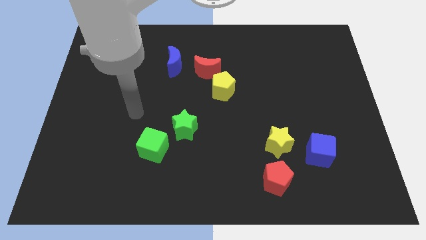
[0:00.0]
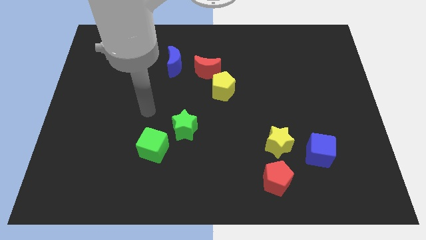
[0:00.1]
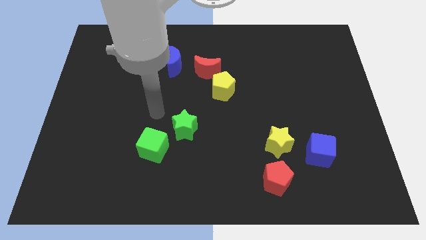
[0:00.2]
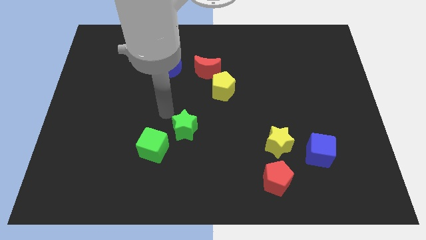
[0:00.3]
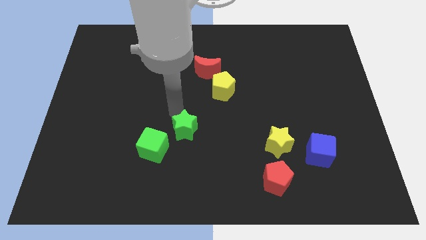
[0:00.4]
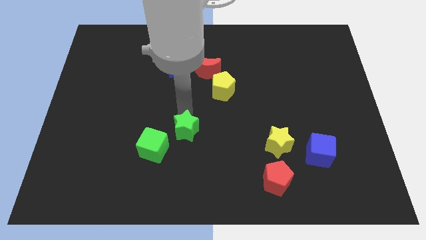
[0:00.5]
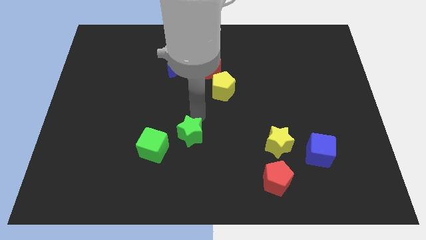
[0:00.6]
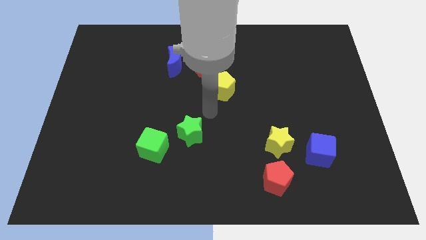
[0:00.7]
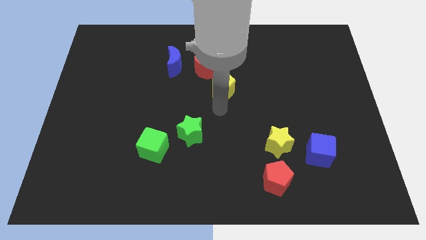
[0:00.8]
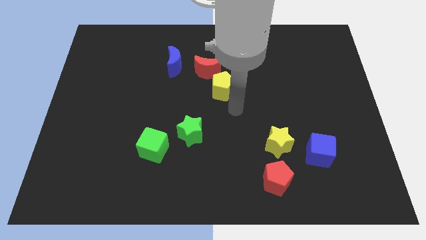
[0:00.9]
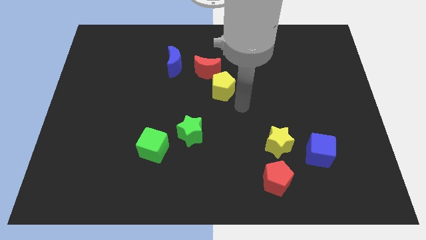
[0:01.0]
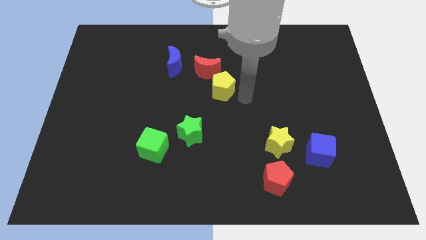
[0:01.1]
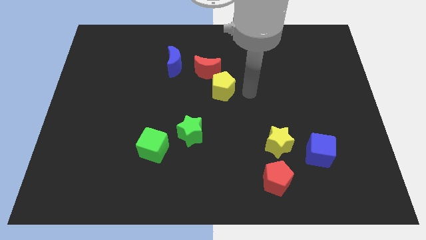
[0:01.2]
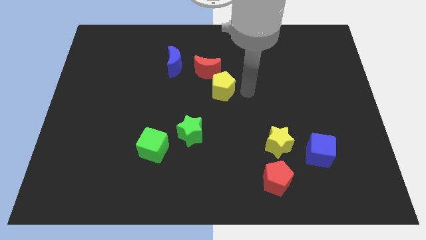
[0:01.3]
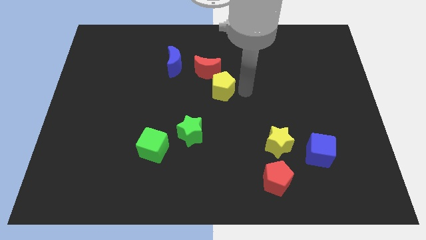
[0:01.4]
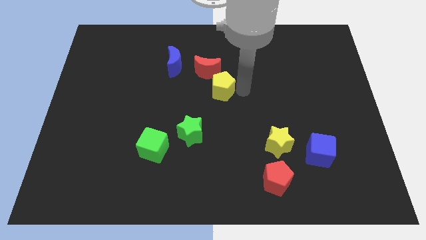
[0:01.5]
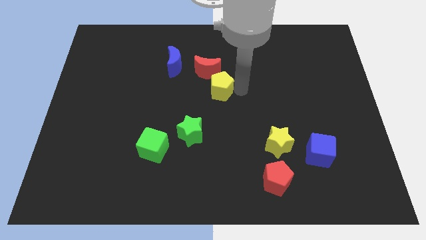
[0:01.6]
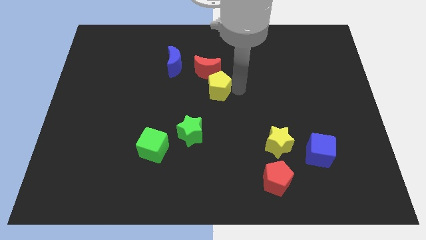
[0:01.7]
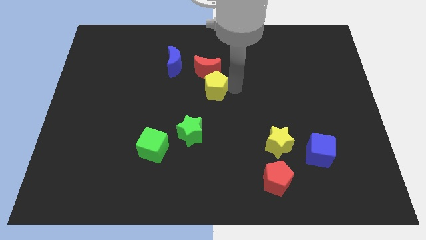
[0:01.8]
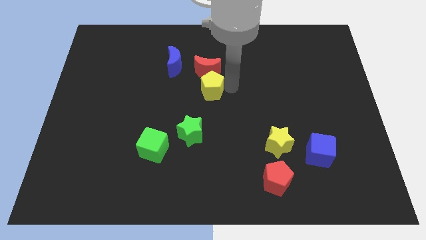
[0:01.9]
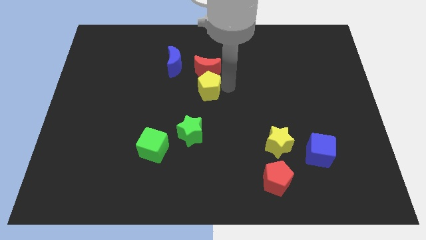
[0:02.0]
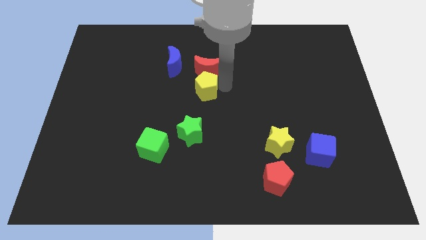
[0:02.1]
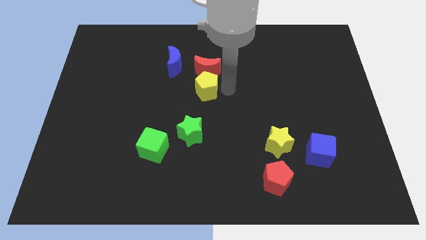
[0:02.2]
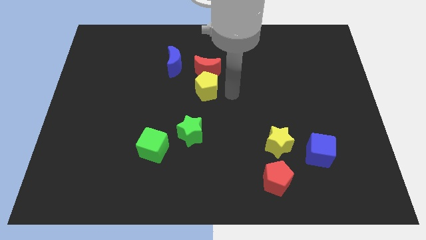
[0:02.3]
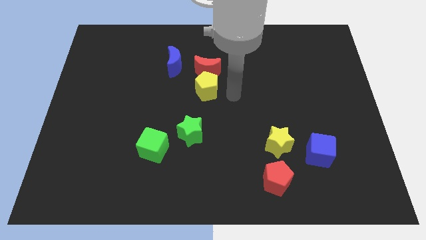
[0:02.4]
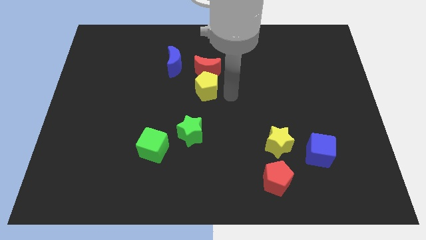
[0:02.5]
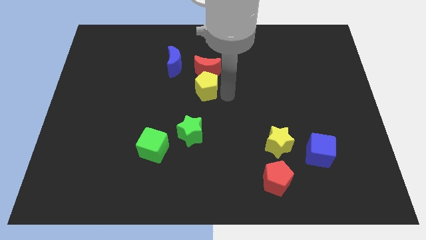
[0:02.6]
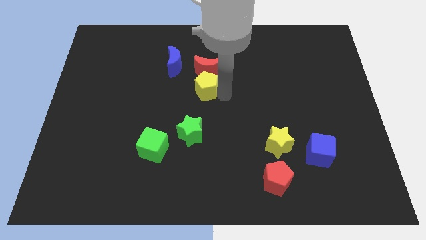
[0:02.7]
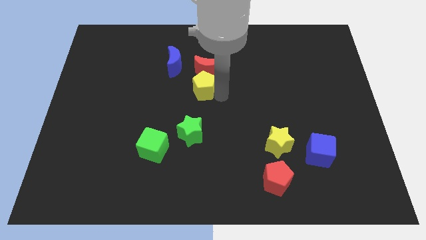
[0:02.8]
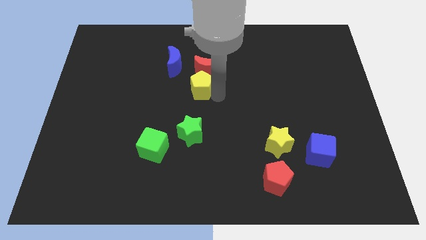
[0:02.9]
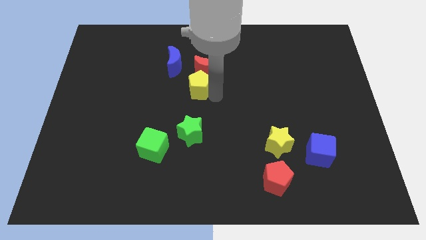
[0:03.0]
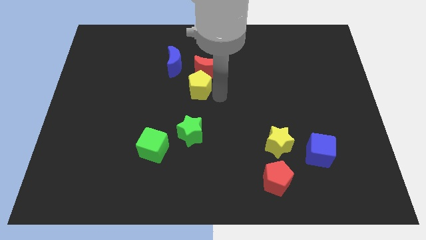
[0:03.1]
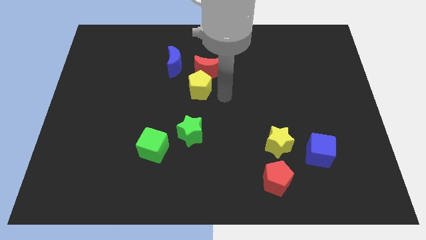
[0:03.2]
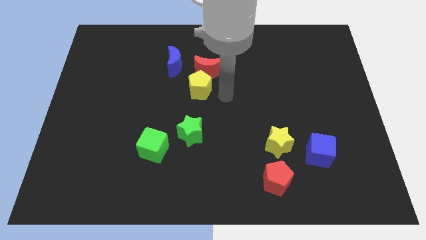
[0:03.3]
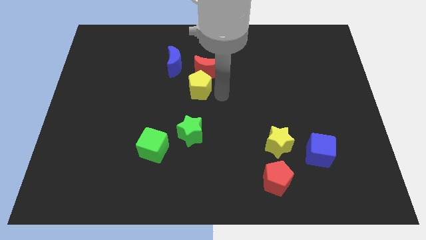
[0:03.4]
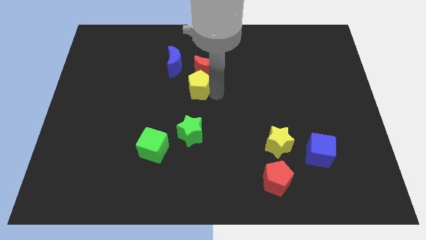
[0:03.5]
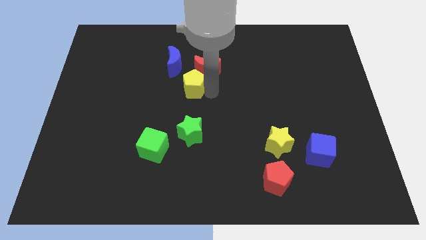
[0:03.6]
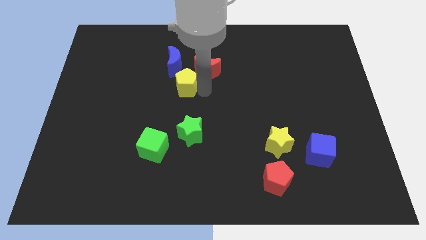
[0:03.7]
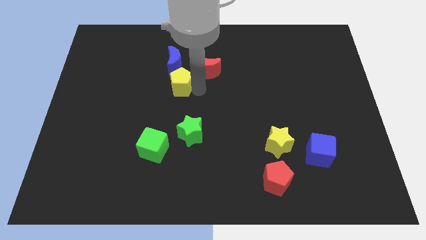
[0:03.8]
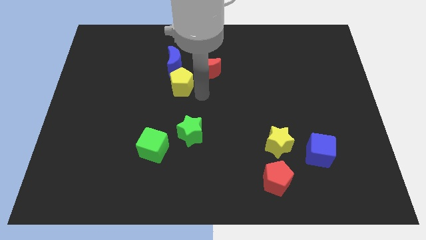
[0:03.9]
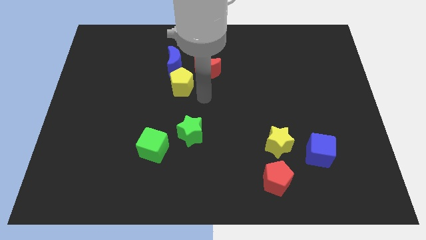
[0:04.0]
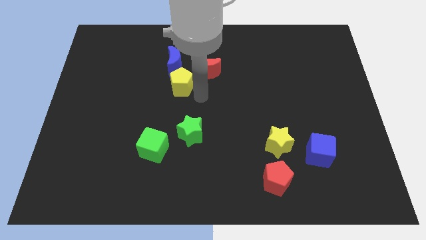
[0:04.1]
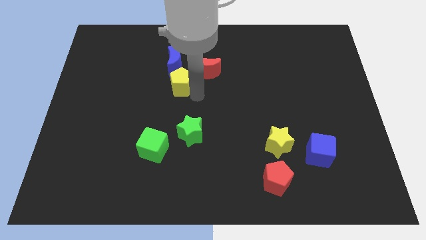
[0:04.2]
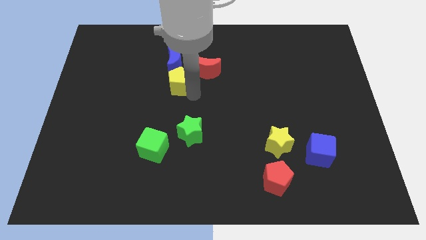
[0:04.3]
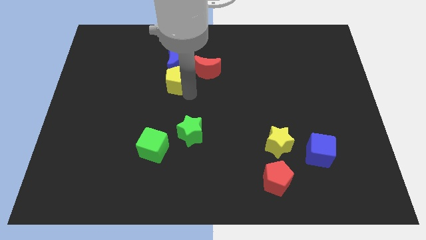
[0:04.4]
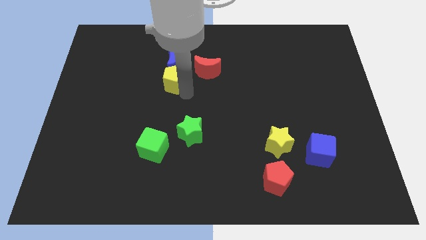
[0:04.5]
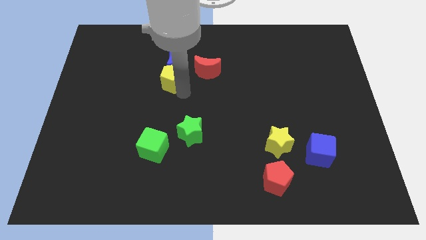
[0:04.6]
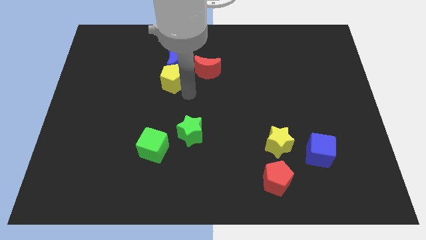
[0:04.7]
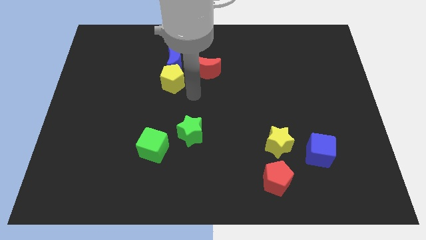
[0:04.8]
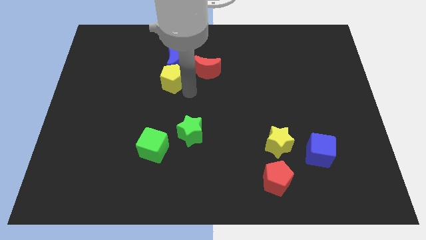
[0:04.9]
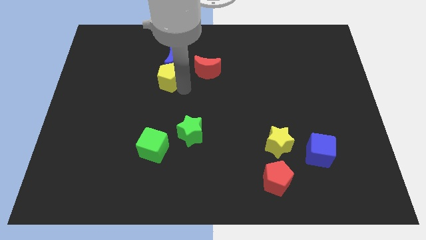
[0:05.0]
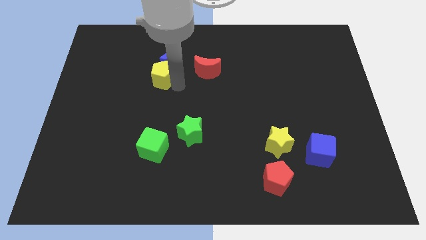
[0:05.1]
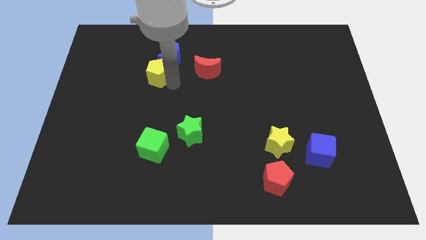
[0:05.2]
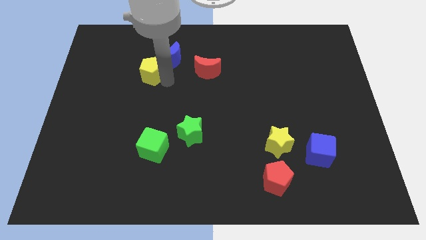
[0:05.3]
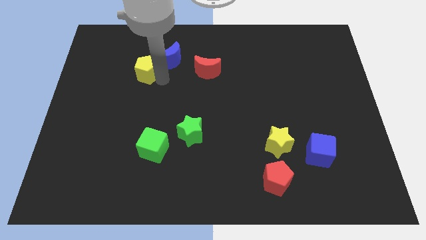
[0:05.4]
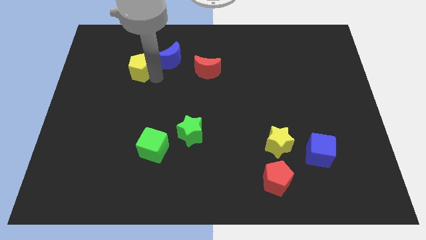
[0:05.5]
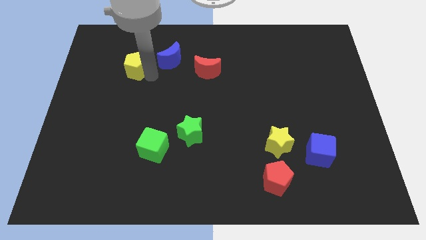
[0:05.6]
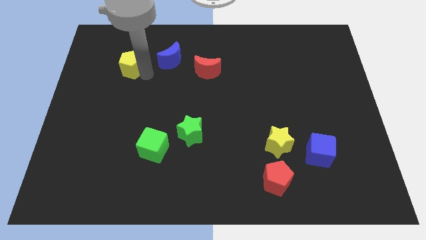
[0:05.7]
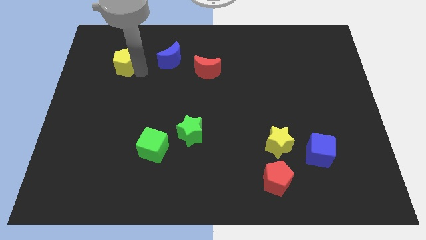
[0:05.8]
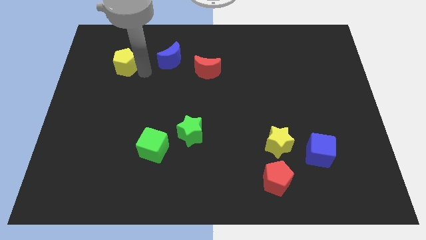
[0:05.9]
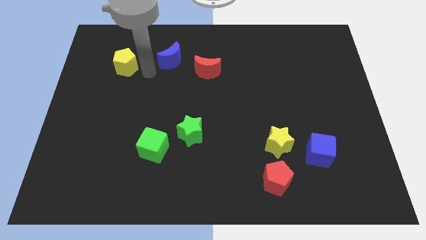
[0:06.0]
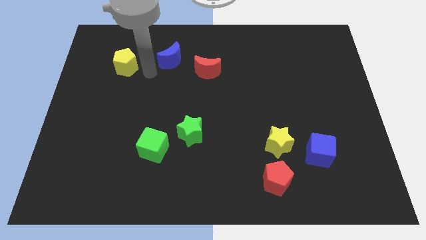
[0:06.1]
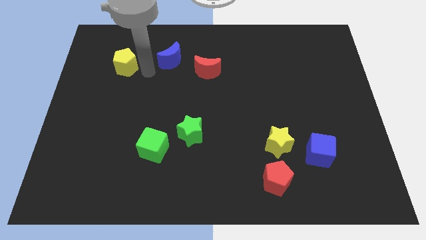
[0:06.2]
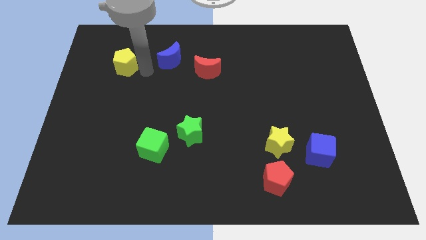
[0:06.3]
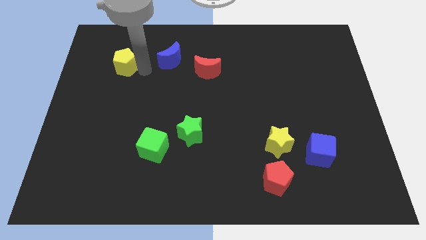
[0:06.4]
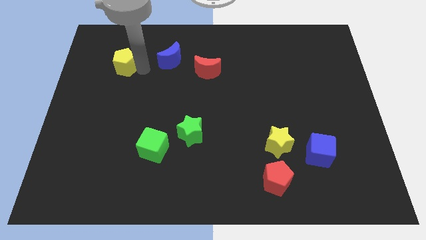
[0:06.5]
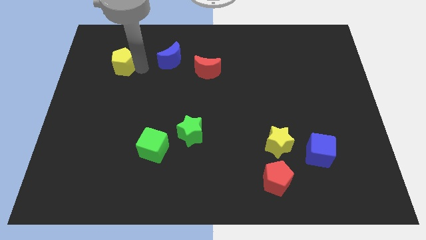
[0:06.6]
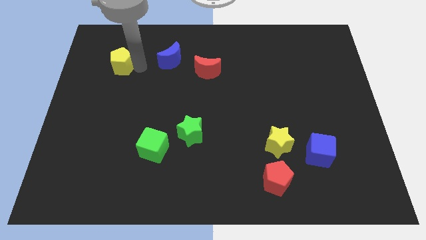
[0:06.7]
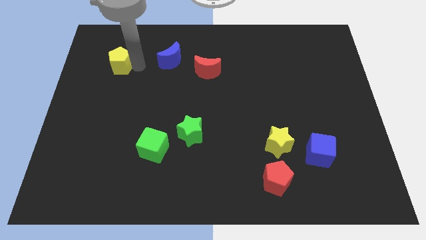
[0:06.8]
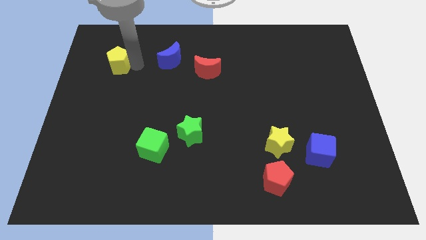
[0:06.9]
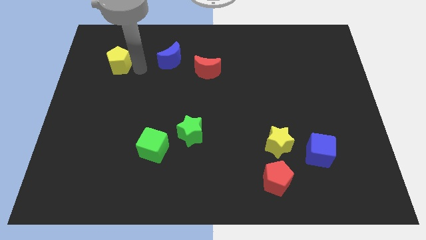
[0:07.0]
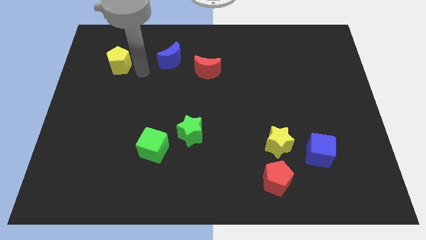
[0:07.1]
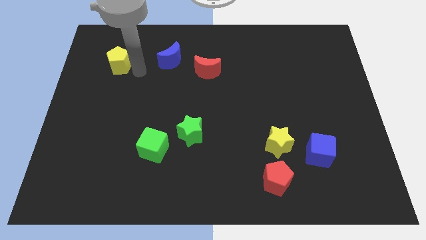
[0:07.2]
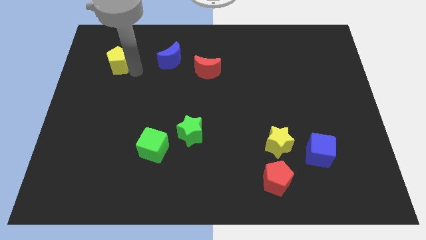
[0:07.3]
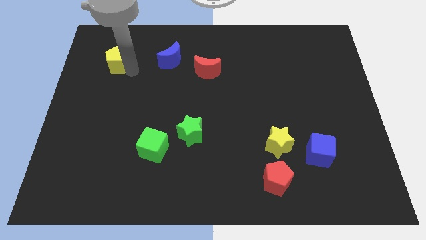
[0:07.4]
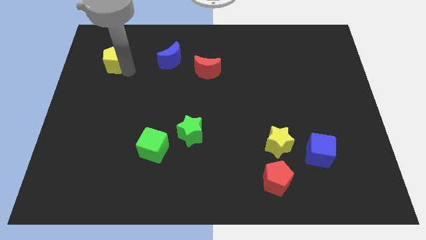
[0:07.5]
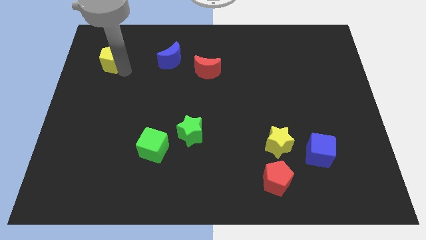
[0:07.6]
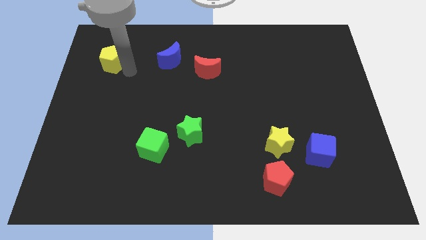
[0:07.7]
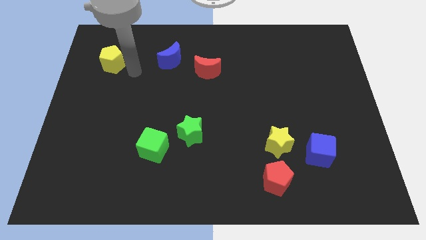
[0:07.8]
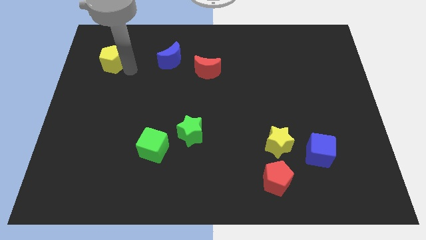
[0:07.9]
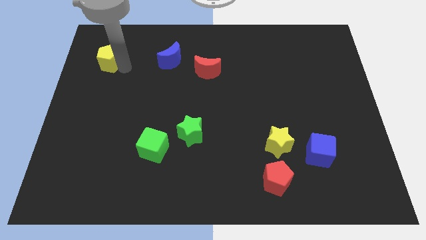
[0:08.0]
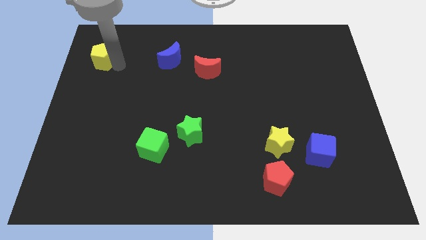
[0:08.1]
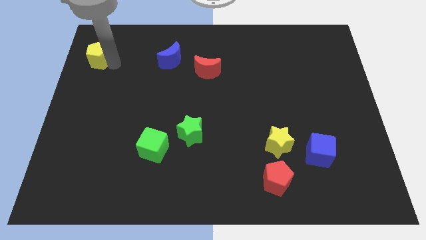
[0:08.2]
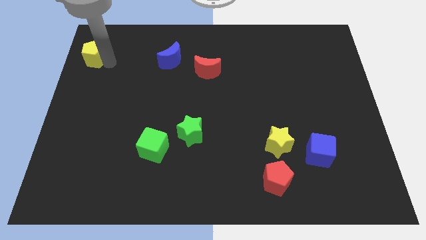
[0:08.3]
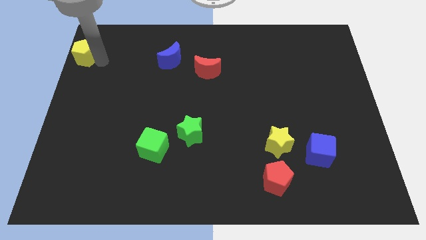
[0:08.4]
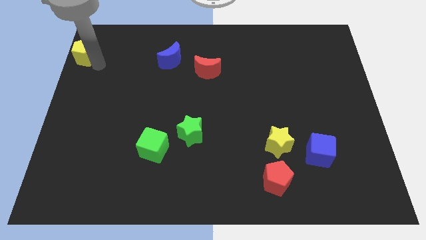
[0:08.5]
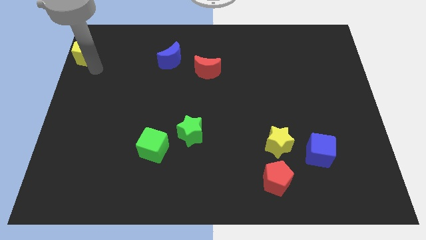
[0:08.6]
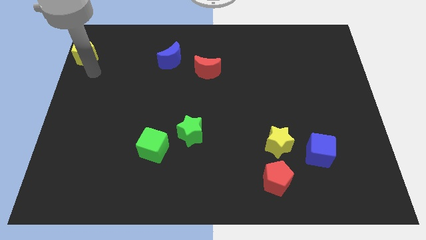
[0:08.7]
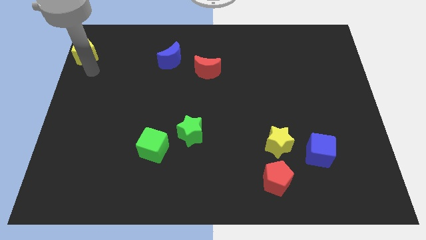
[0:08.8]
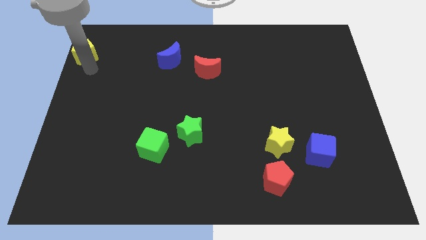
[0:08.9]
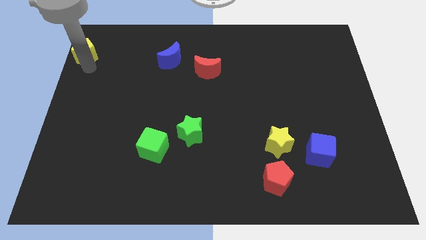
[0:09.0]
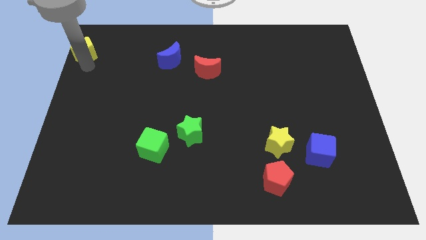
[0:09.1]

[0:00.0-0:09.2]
move the yellow pentagon to the top left
